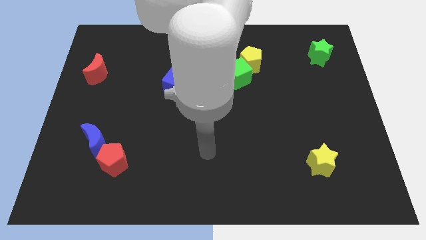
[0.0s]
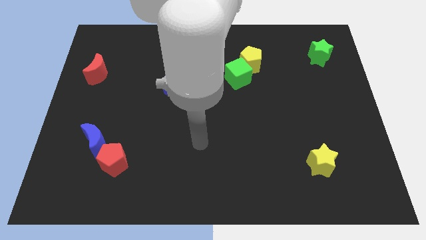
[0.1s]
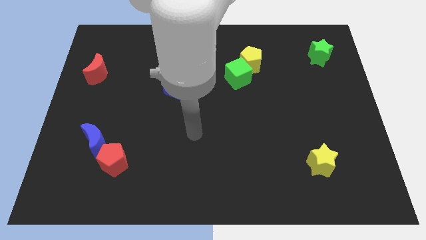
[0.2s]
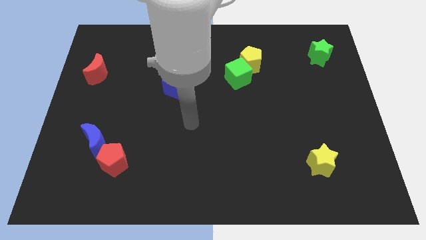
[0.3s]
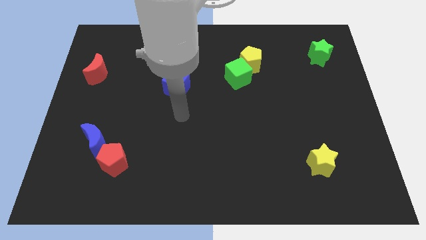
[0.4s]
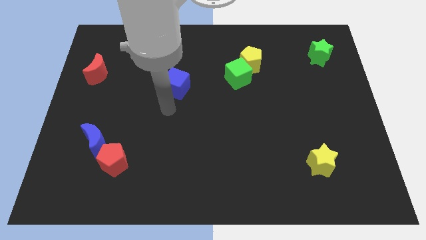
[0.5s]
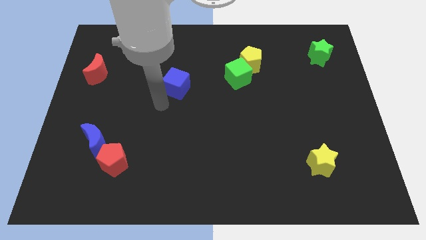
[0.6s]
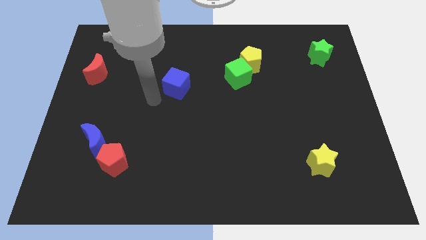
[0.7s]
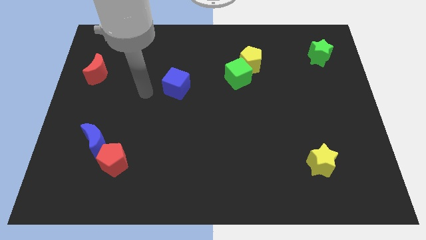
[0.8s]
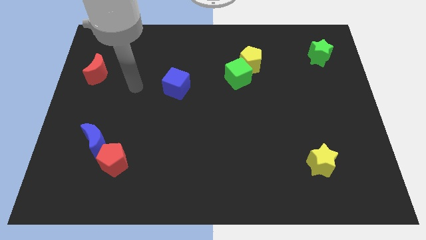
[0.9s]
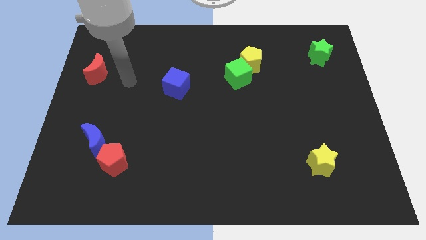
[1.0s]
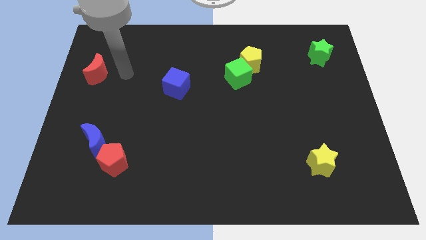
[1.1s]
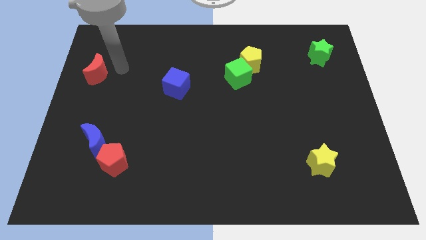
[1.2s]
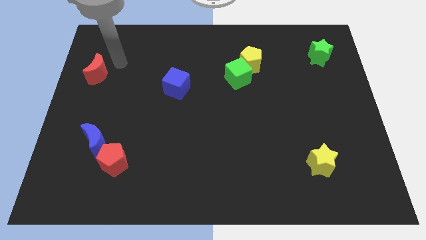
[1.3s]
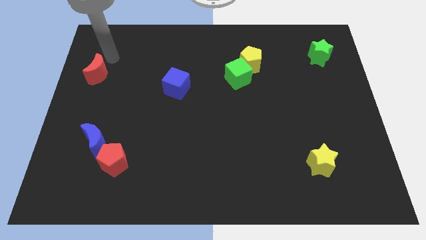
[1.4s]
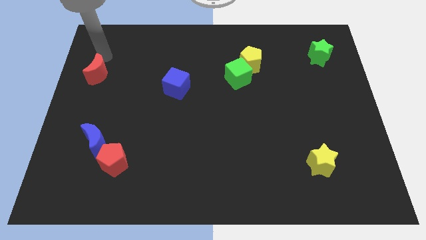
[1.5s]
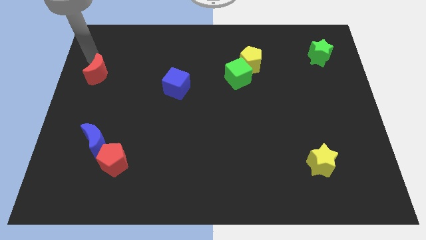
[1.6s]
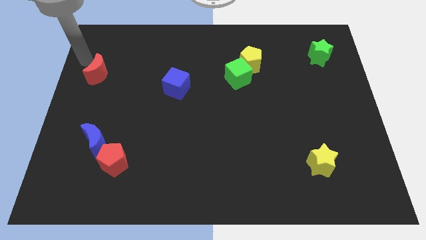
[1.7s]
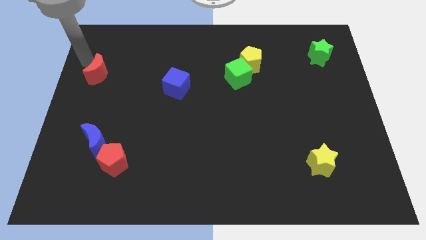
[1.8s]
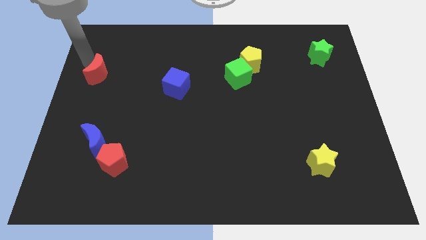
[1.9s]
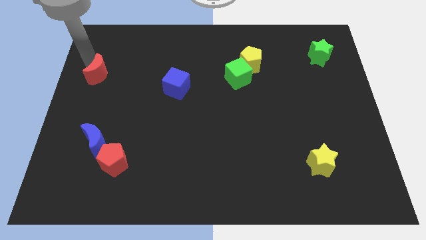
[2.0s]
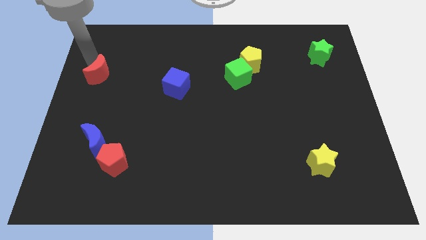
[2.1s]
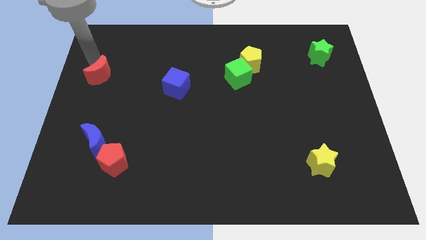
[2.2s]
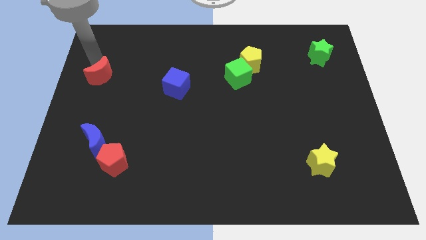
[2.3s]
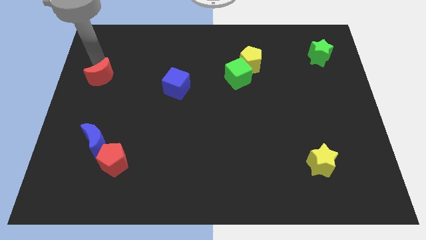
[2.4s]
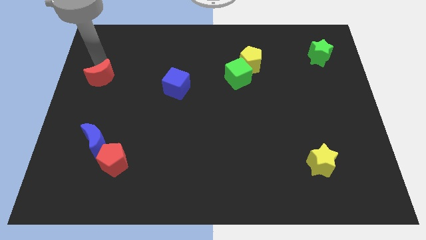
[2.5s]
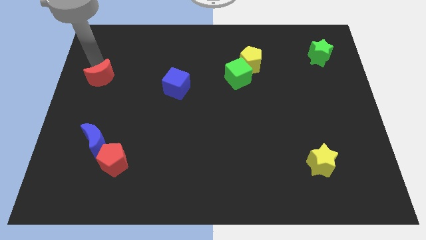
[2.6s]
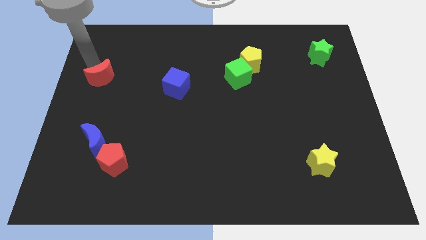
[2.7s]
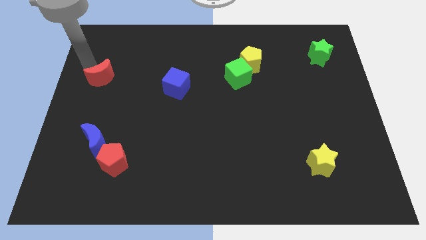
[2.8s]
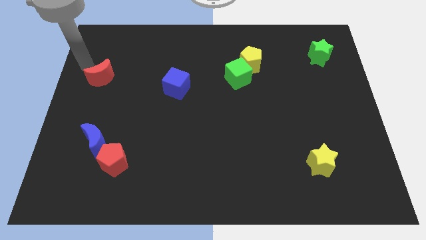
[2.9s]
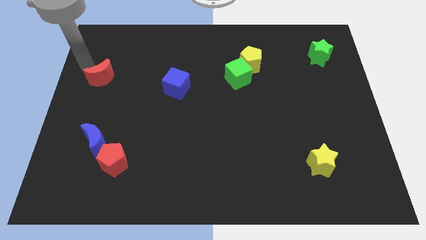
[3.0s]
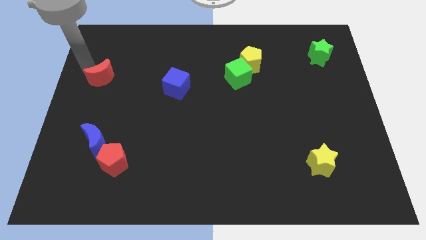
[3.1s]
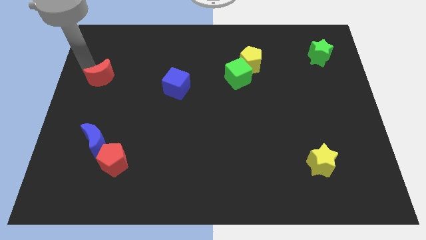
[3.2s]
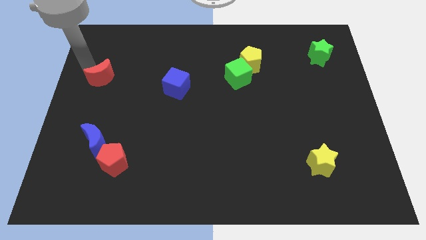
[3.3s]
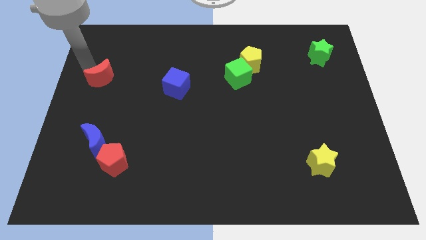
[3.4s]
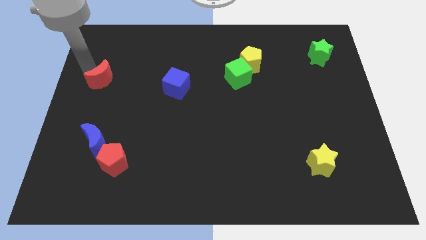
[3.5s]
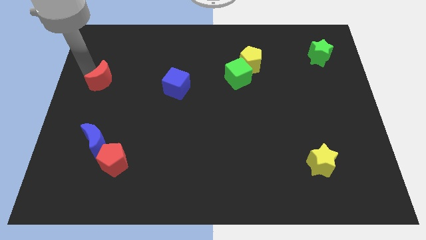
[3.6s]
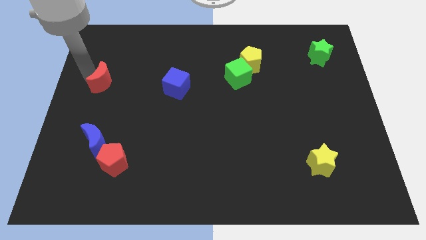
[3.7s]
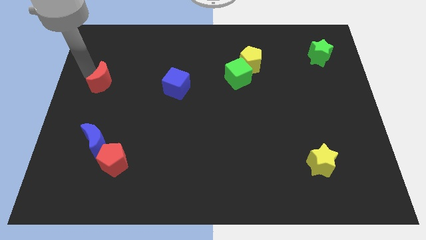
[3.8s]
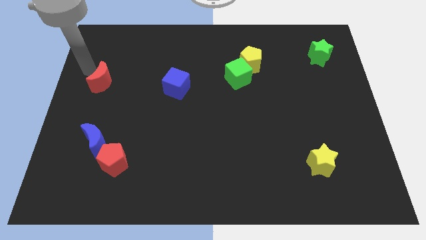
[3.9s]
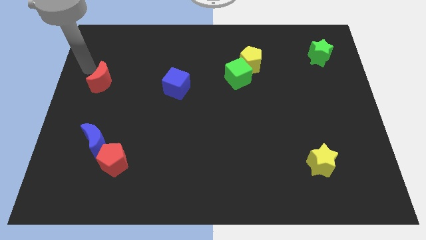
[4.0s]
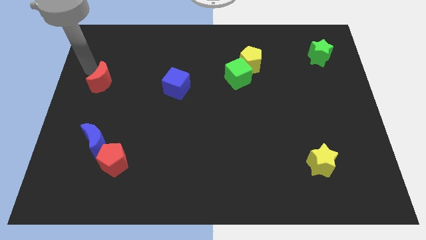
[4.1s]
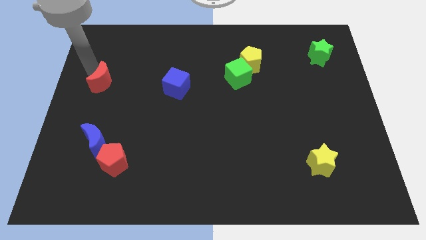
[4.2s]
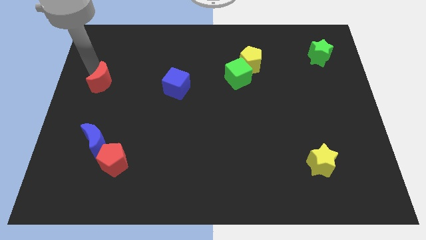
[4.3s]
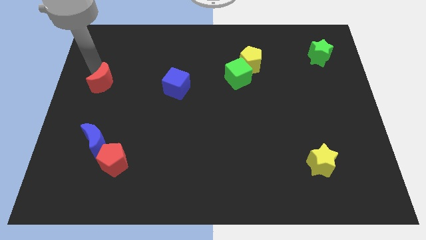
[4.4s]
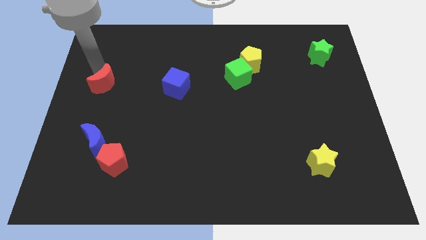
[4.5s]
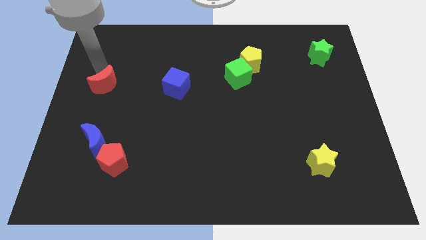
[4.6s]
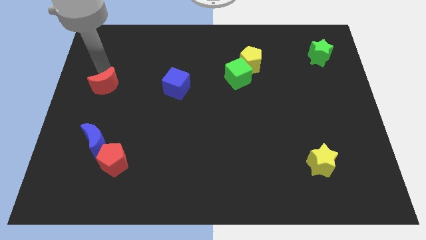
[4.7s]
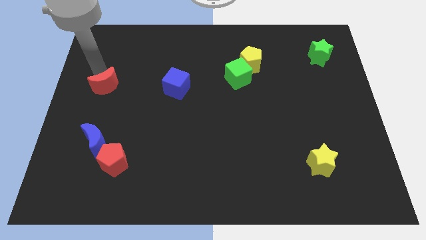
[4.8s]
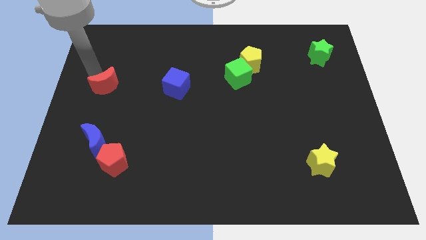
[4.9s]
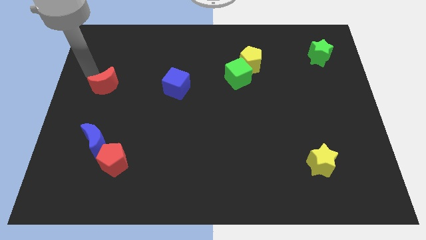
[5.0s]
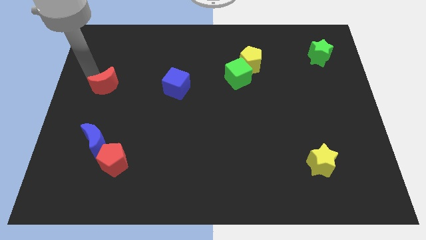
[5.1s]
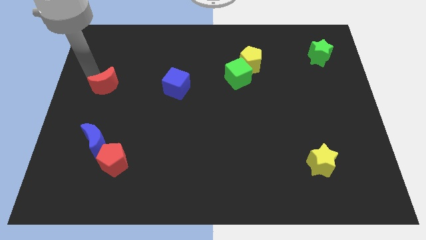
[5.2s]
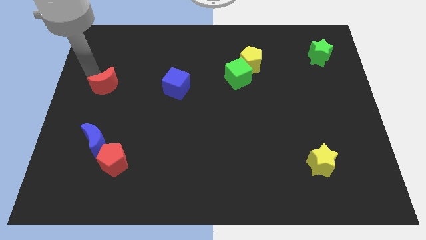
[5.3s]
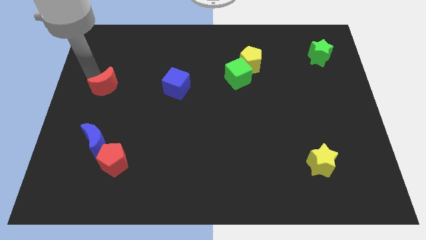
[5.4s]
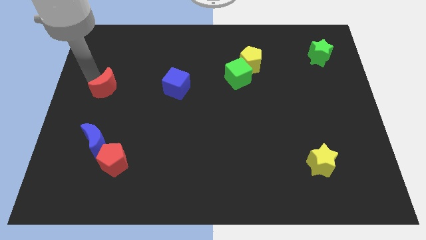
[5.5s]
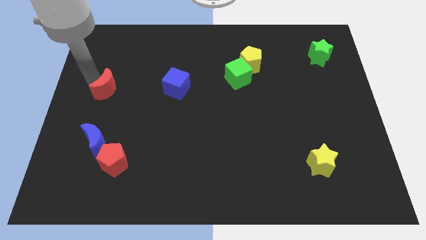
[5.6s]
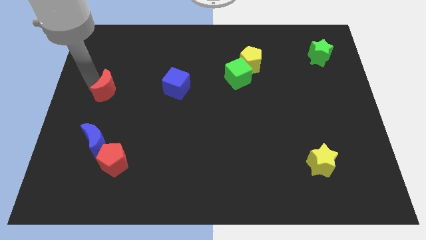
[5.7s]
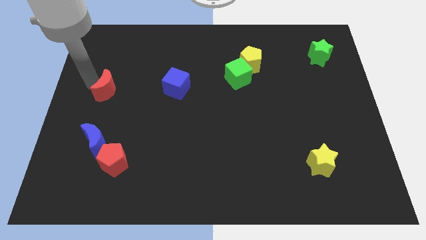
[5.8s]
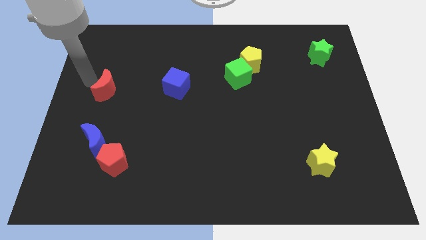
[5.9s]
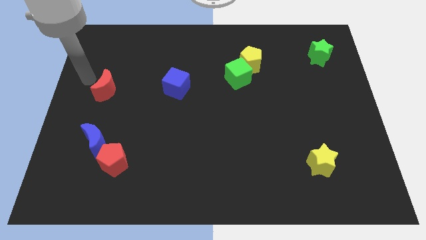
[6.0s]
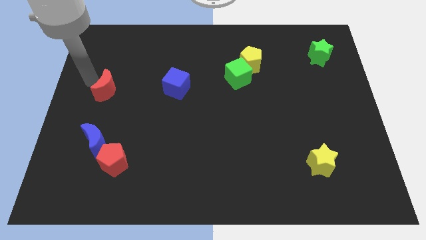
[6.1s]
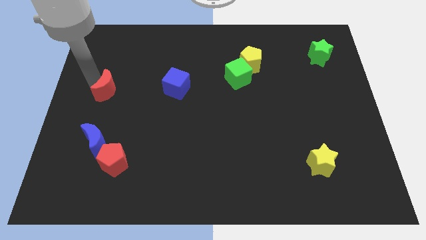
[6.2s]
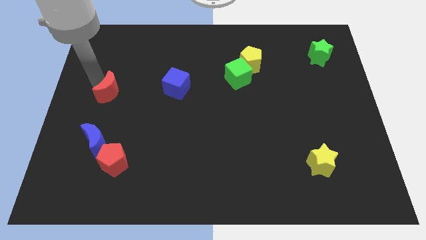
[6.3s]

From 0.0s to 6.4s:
push the red moon diagonally down and to the right a bit

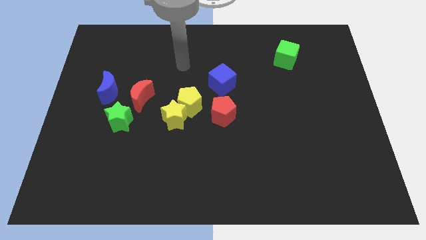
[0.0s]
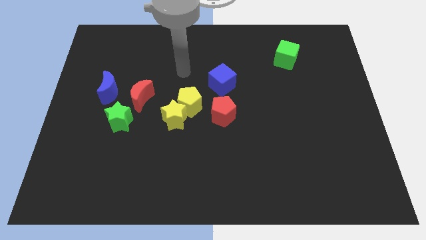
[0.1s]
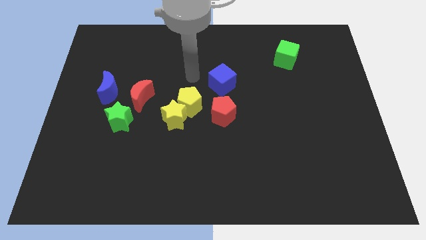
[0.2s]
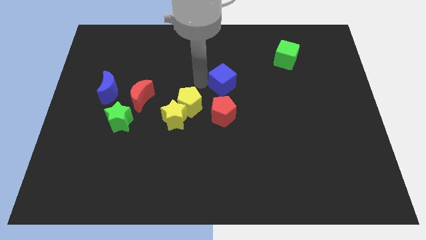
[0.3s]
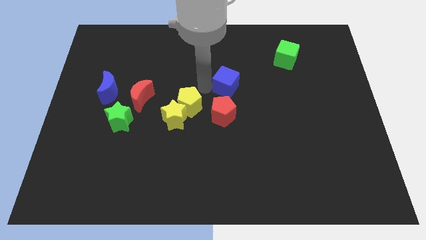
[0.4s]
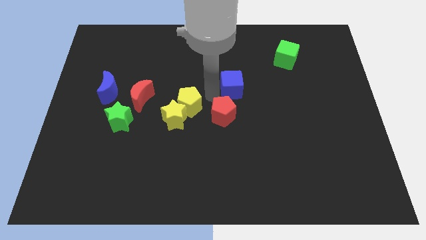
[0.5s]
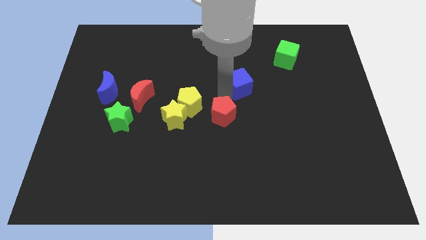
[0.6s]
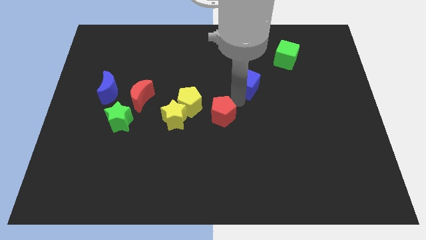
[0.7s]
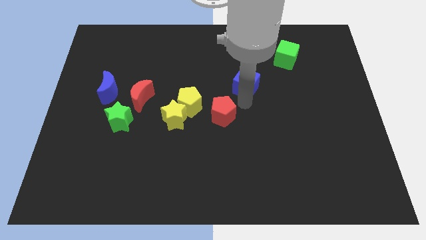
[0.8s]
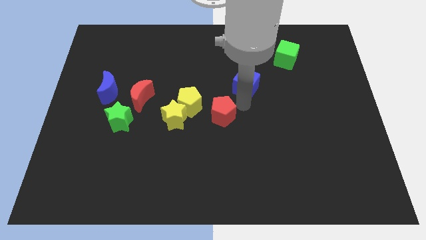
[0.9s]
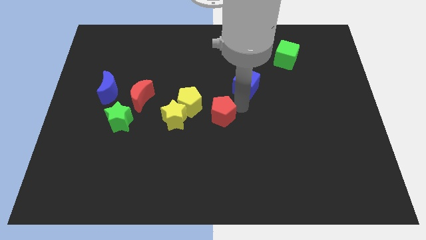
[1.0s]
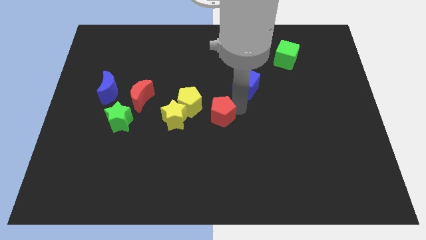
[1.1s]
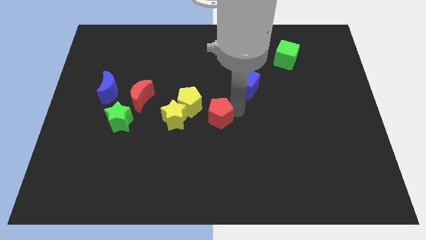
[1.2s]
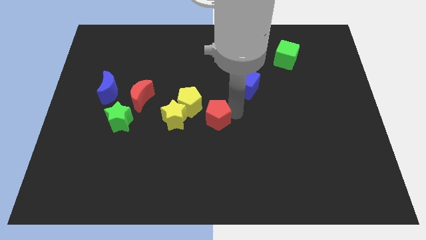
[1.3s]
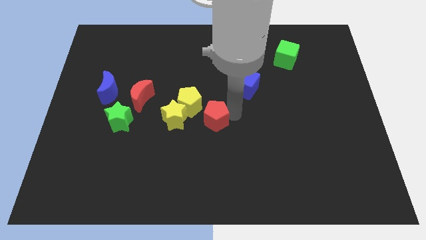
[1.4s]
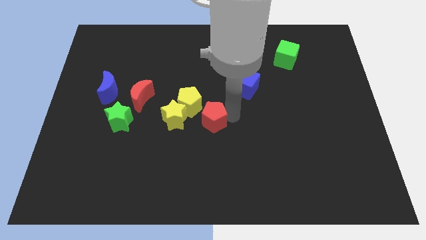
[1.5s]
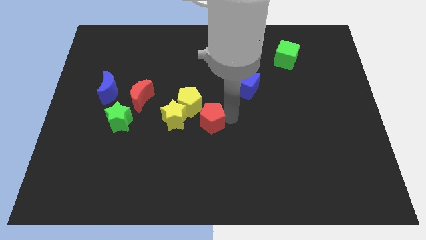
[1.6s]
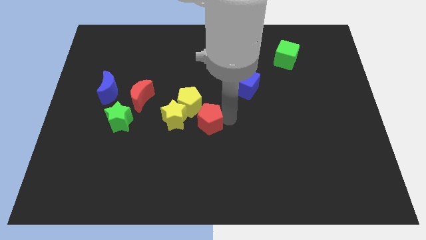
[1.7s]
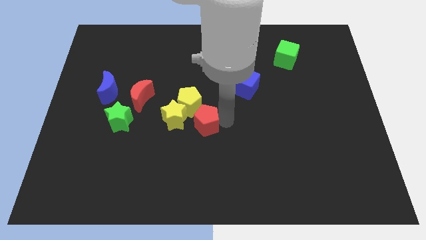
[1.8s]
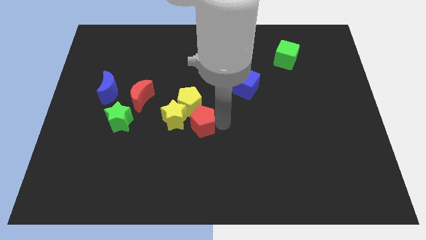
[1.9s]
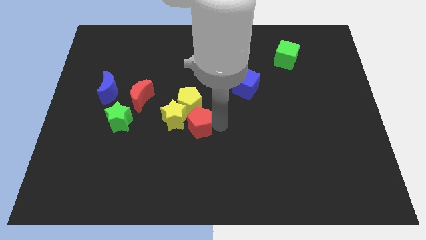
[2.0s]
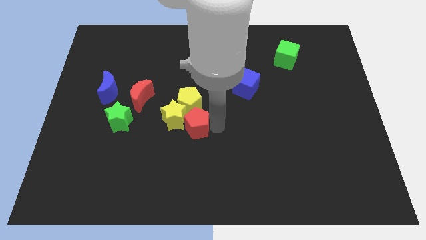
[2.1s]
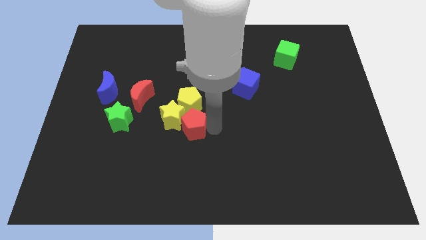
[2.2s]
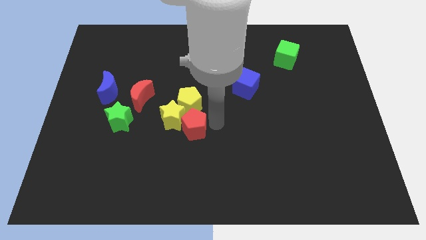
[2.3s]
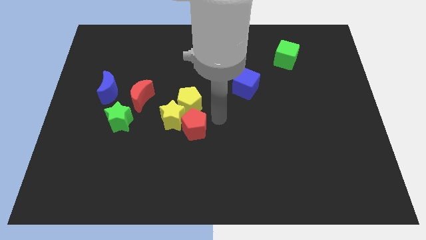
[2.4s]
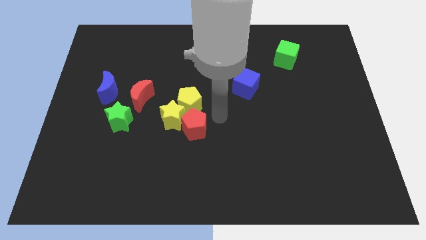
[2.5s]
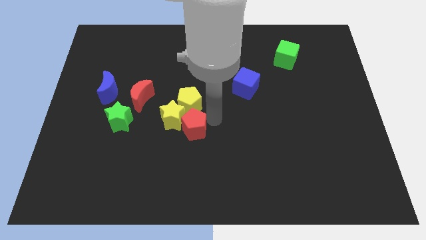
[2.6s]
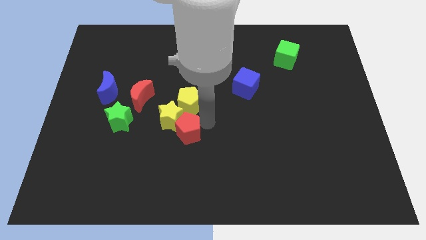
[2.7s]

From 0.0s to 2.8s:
push the red pentagon slightly to the left
